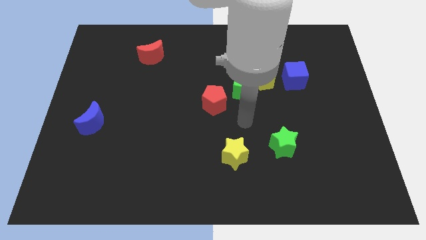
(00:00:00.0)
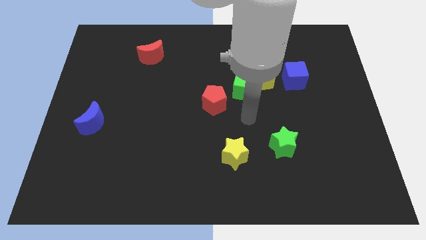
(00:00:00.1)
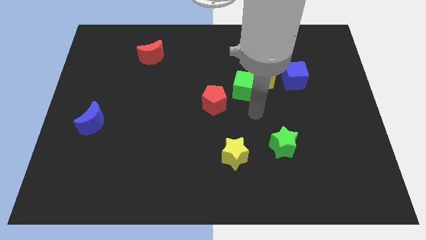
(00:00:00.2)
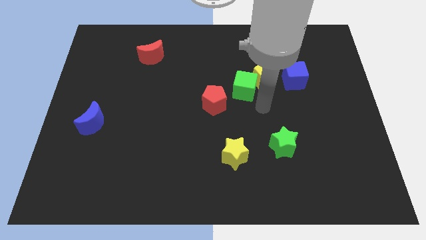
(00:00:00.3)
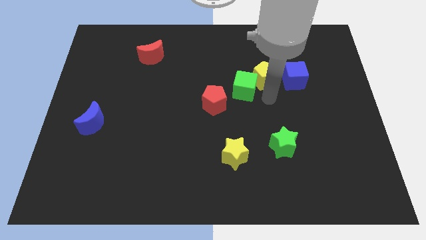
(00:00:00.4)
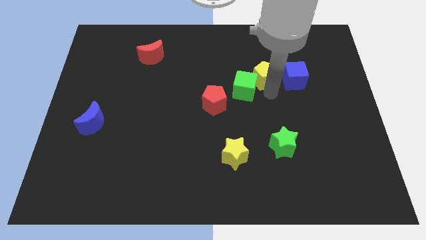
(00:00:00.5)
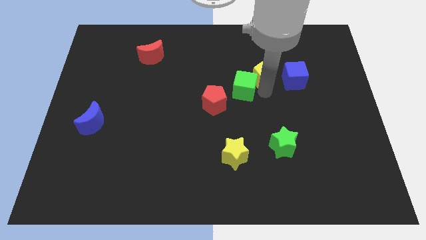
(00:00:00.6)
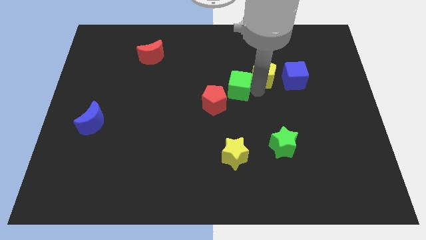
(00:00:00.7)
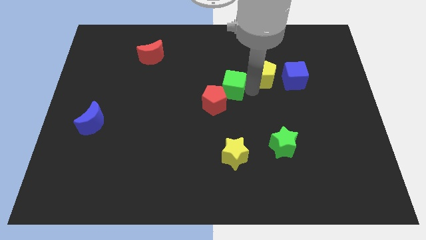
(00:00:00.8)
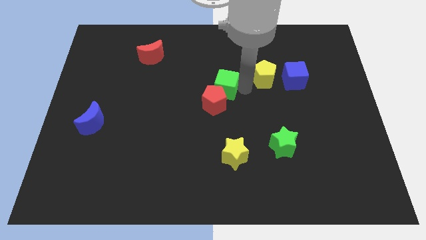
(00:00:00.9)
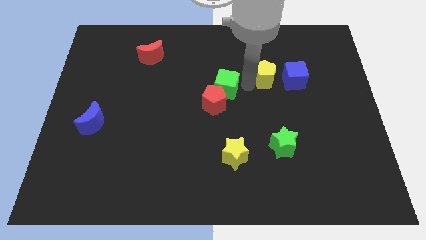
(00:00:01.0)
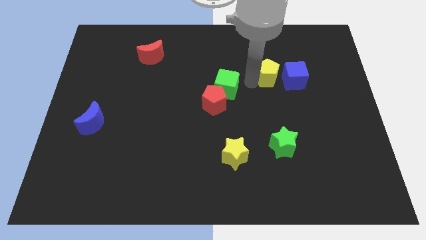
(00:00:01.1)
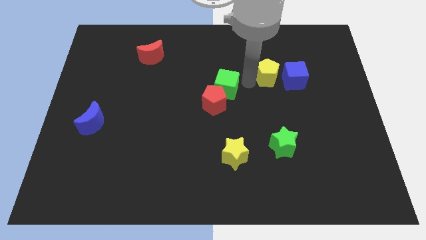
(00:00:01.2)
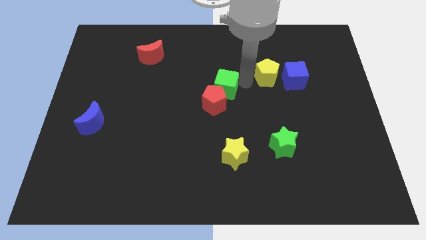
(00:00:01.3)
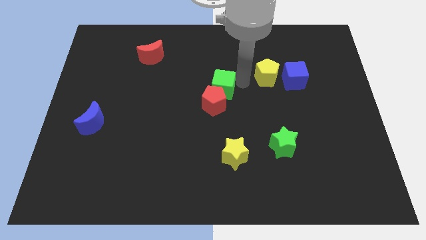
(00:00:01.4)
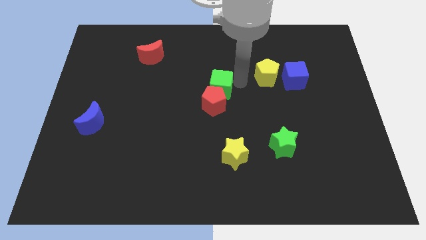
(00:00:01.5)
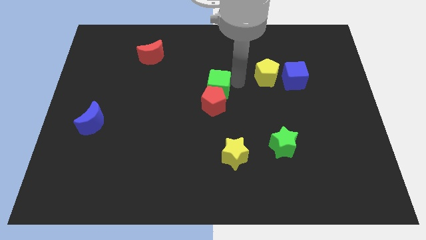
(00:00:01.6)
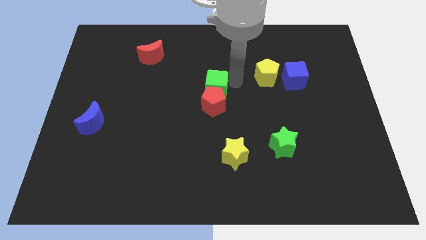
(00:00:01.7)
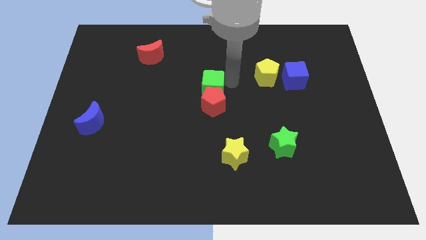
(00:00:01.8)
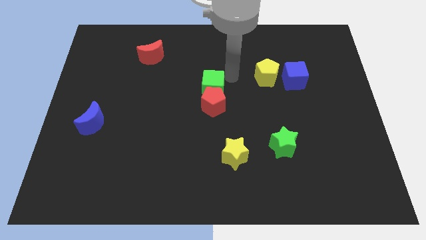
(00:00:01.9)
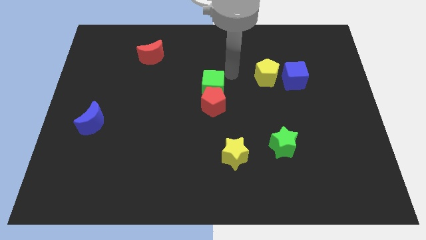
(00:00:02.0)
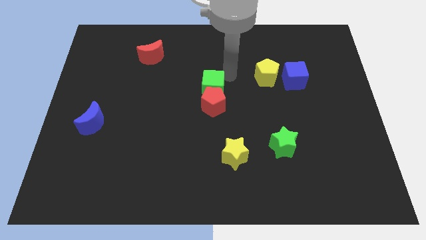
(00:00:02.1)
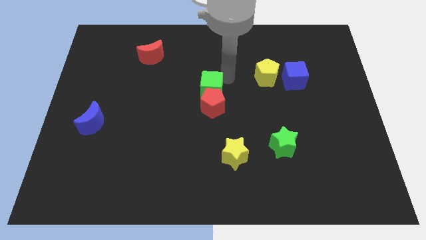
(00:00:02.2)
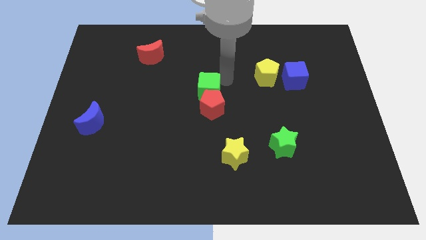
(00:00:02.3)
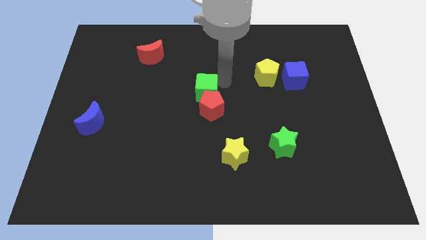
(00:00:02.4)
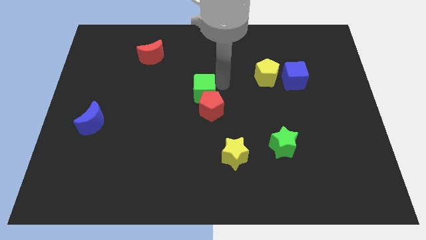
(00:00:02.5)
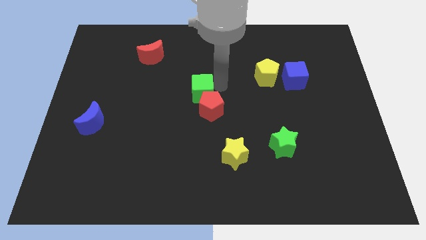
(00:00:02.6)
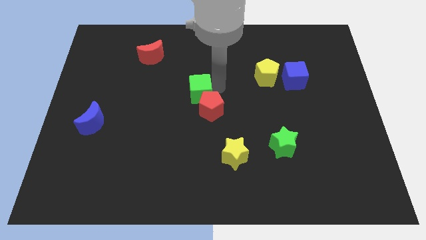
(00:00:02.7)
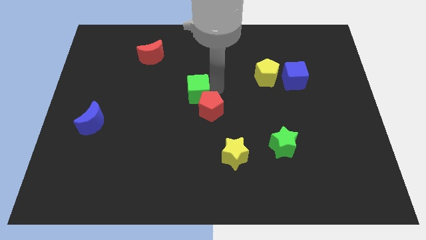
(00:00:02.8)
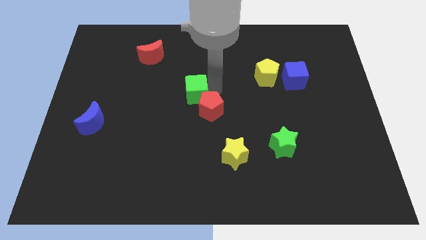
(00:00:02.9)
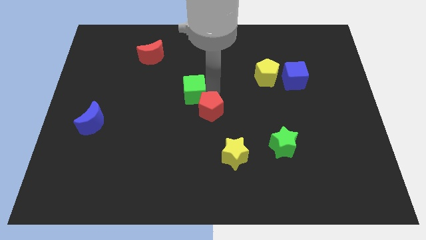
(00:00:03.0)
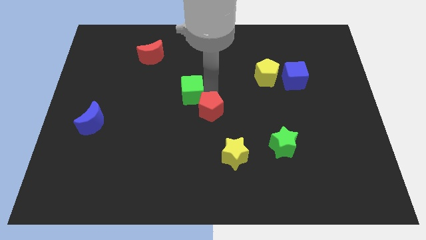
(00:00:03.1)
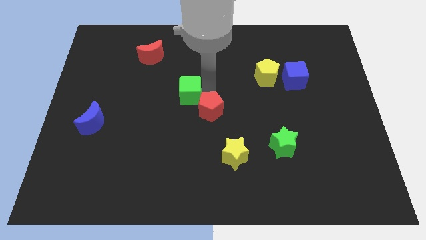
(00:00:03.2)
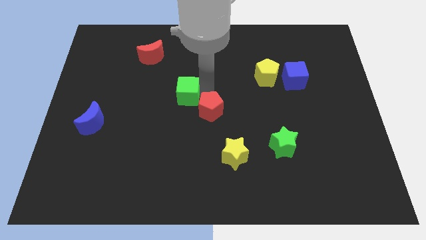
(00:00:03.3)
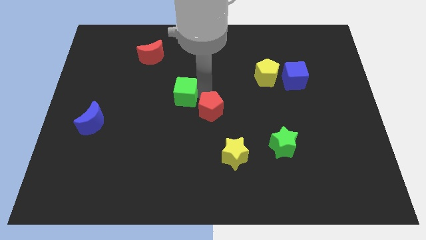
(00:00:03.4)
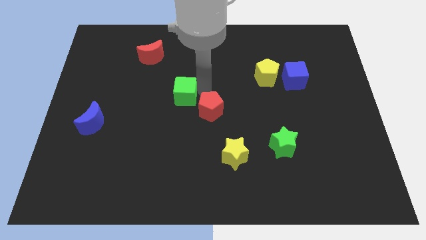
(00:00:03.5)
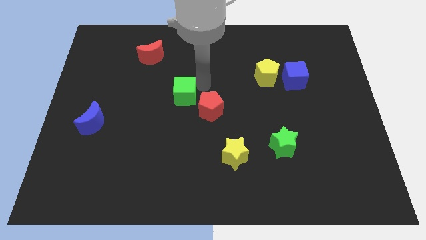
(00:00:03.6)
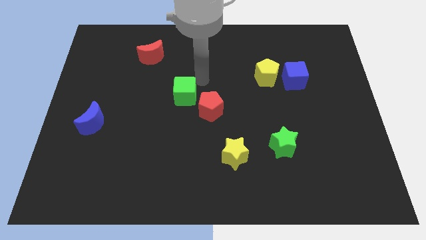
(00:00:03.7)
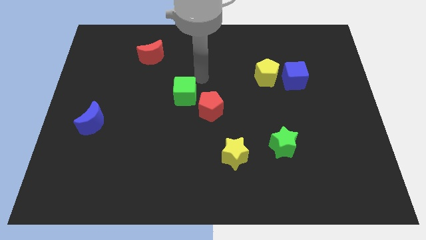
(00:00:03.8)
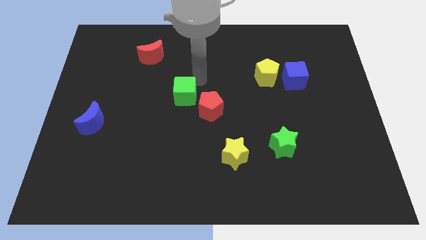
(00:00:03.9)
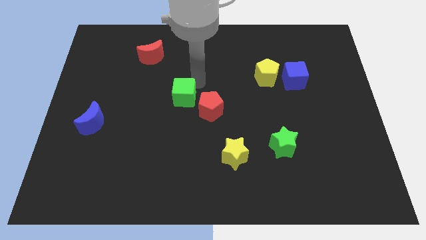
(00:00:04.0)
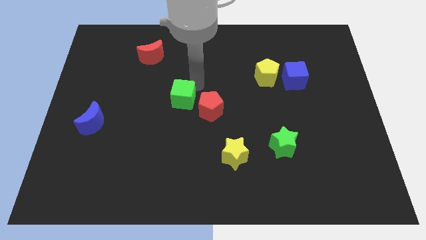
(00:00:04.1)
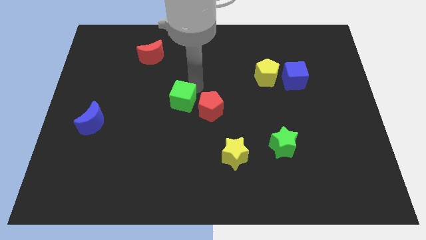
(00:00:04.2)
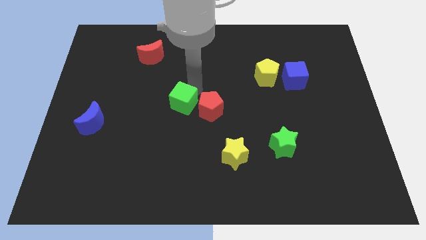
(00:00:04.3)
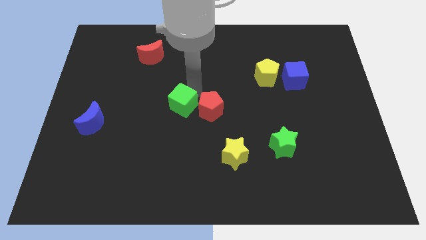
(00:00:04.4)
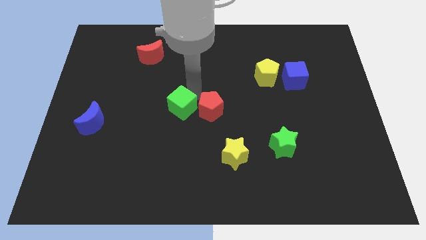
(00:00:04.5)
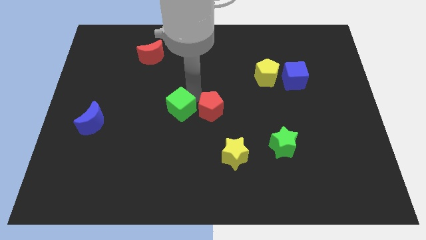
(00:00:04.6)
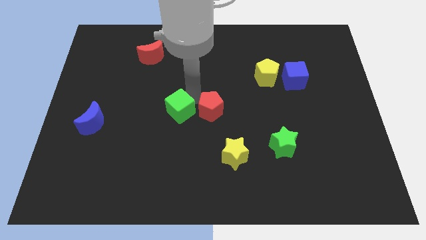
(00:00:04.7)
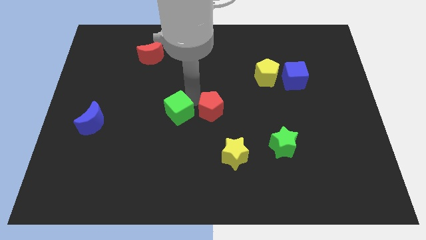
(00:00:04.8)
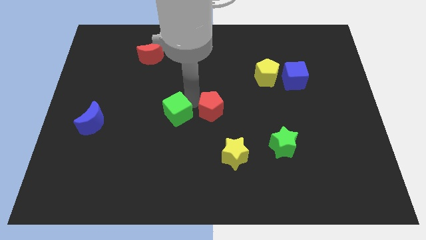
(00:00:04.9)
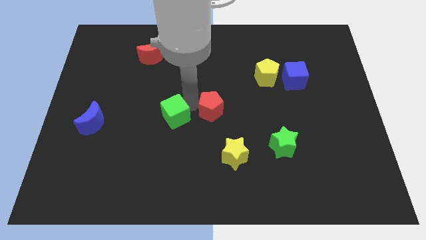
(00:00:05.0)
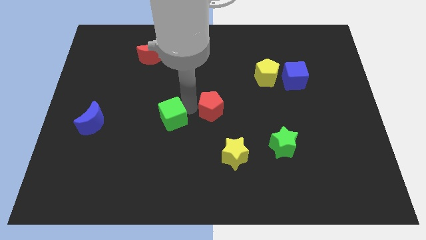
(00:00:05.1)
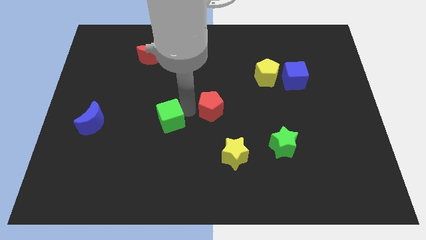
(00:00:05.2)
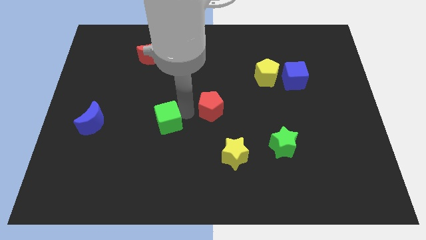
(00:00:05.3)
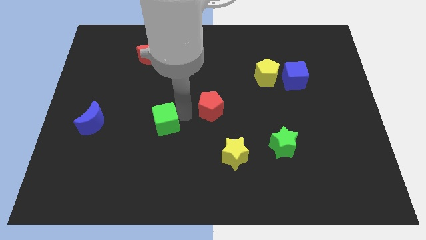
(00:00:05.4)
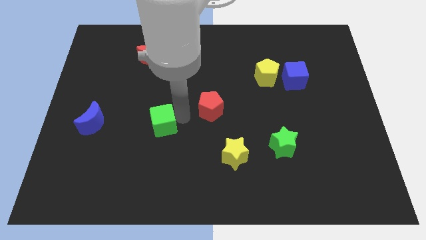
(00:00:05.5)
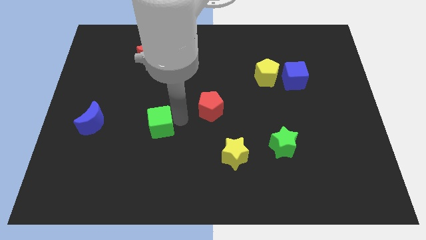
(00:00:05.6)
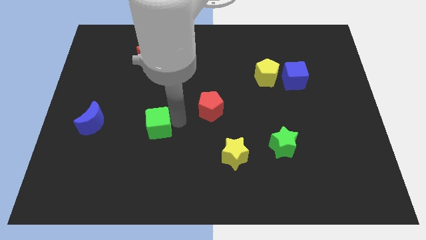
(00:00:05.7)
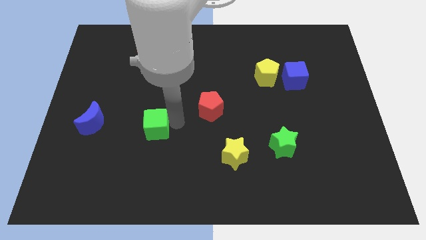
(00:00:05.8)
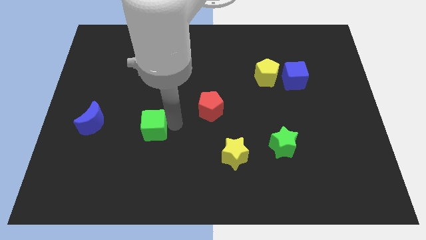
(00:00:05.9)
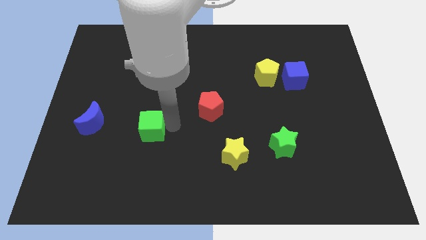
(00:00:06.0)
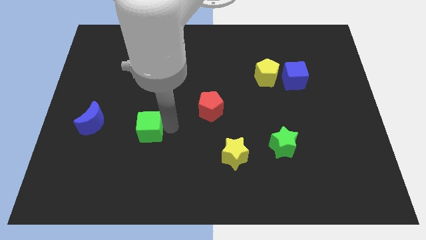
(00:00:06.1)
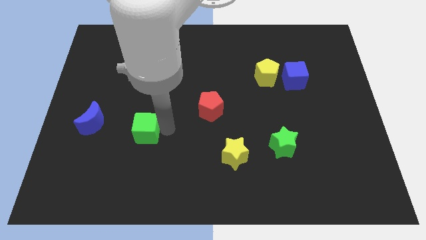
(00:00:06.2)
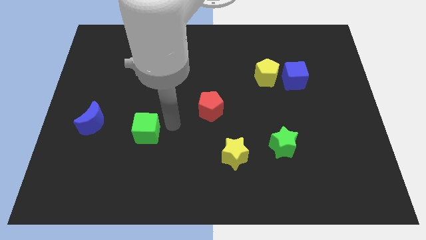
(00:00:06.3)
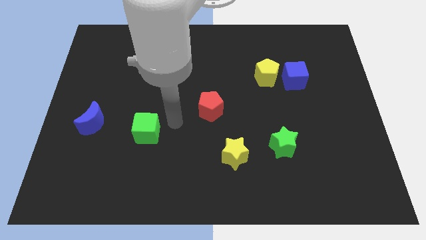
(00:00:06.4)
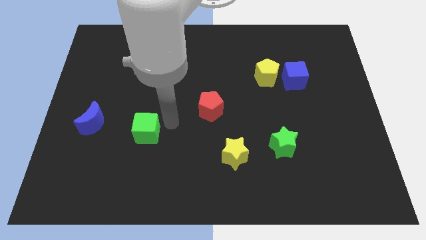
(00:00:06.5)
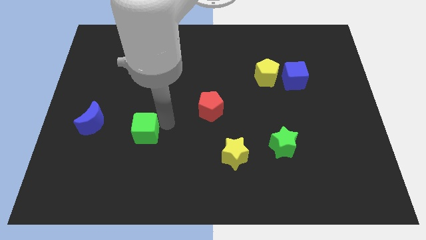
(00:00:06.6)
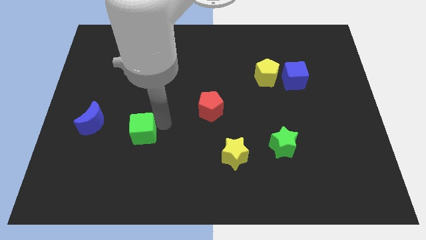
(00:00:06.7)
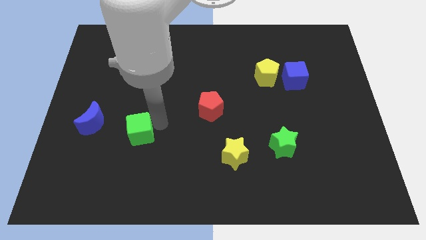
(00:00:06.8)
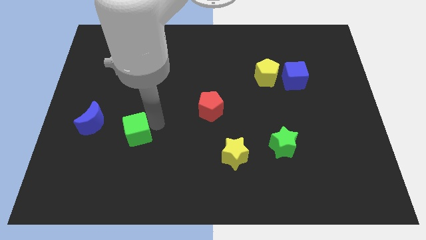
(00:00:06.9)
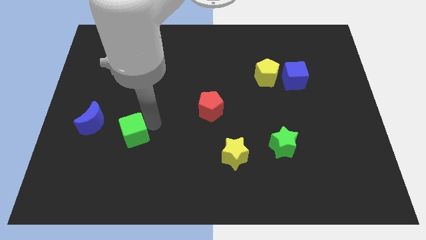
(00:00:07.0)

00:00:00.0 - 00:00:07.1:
put the green cube diagonally down and to the right of the blue moon

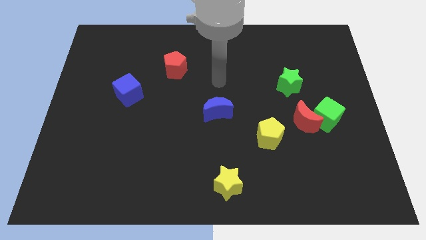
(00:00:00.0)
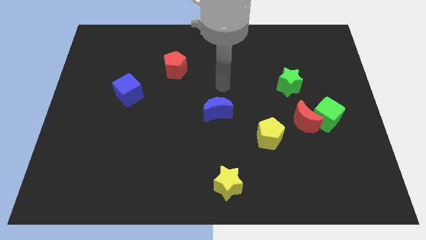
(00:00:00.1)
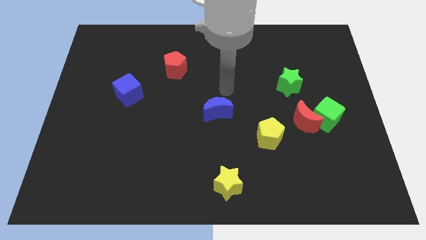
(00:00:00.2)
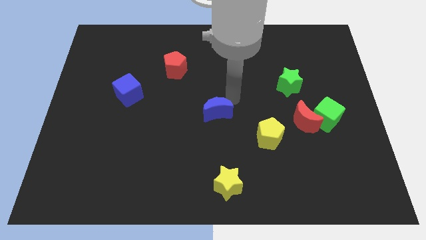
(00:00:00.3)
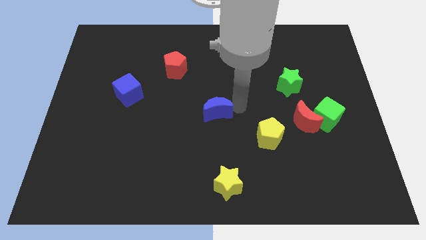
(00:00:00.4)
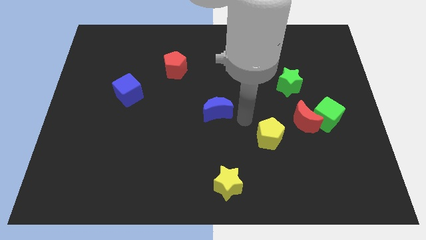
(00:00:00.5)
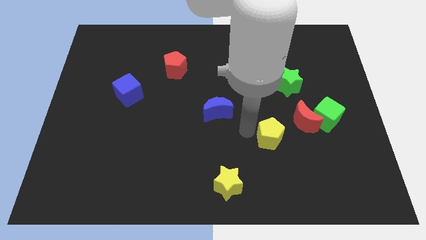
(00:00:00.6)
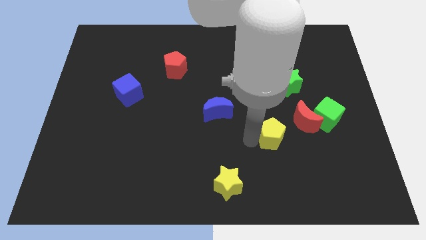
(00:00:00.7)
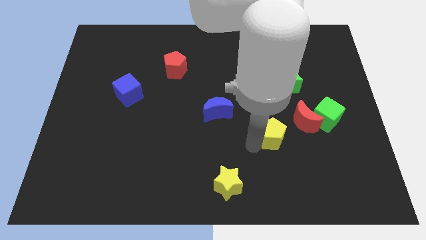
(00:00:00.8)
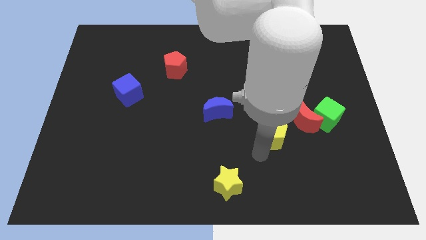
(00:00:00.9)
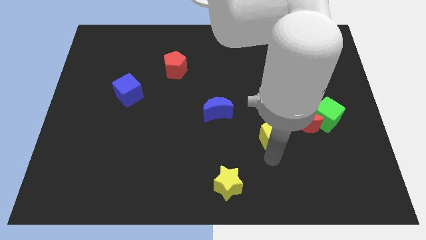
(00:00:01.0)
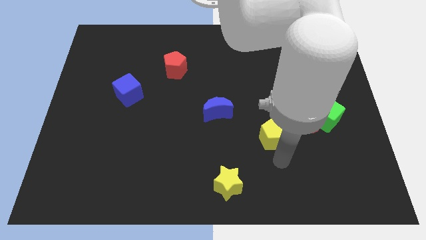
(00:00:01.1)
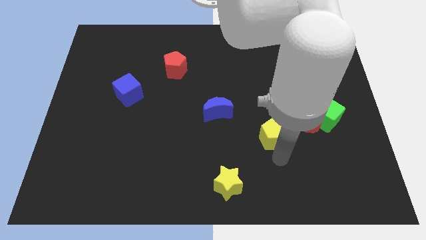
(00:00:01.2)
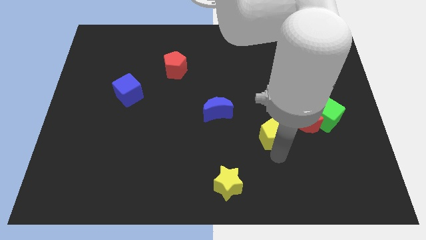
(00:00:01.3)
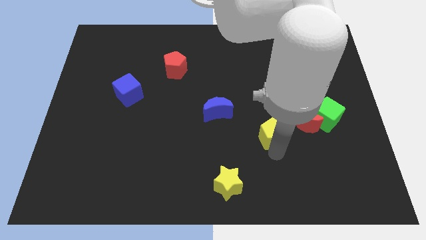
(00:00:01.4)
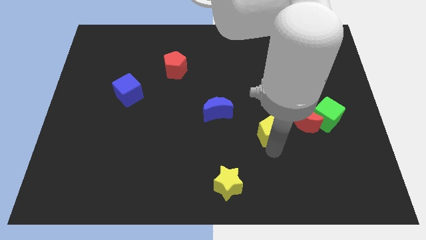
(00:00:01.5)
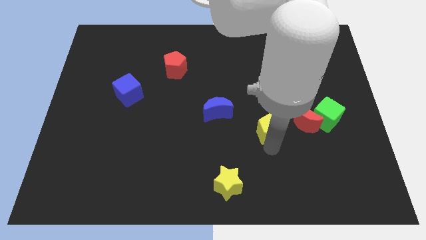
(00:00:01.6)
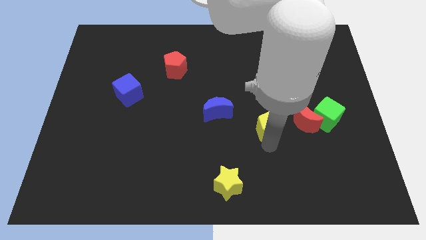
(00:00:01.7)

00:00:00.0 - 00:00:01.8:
slide the yellow pentagon right of the blue moon
